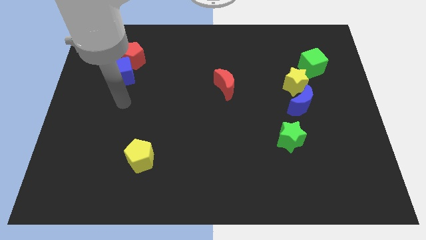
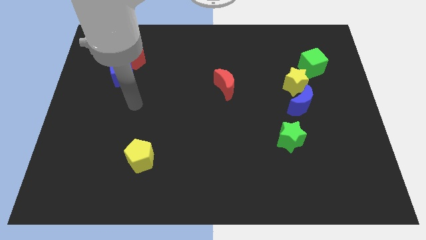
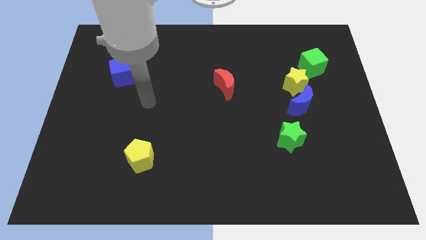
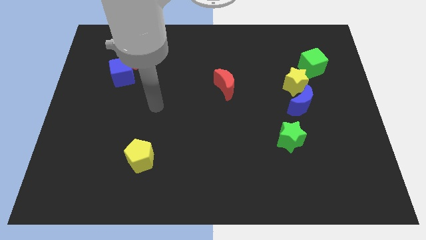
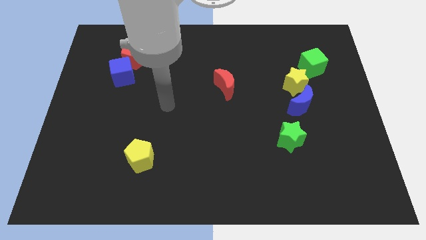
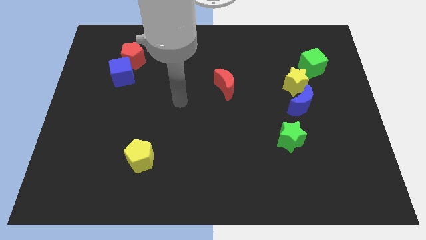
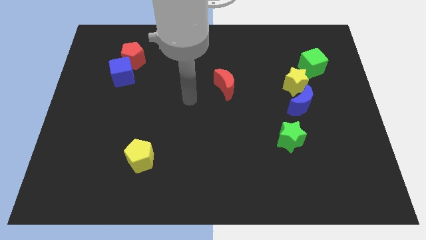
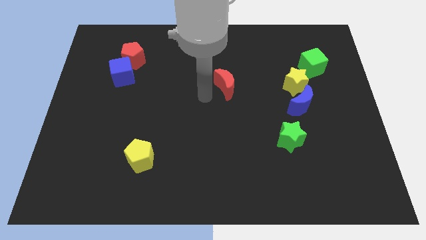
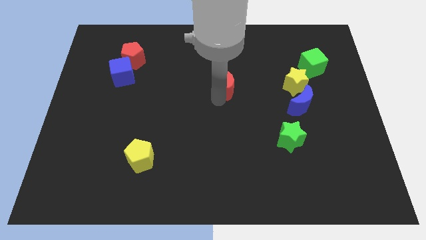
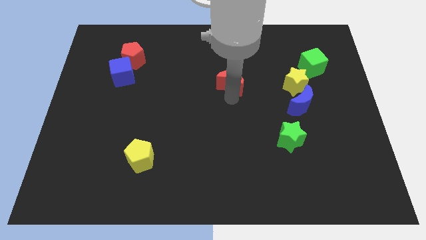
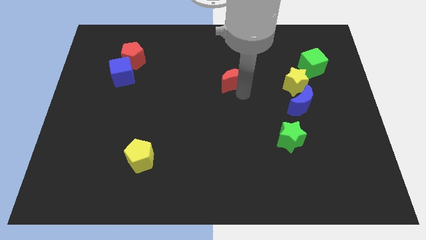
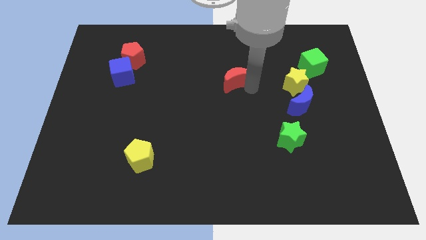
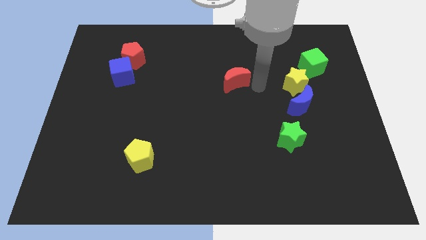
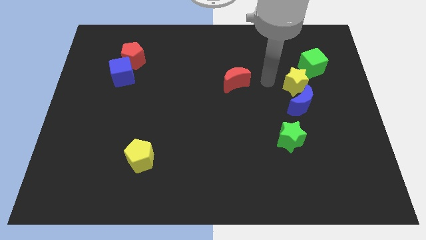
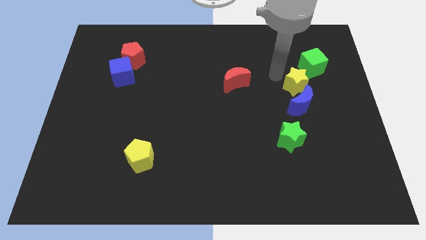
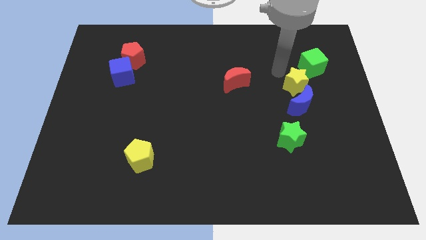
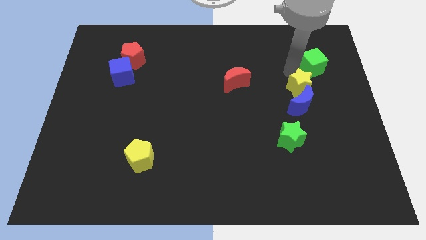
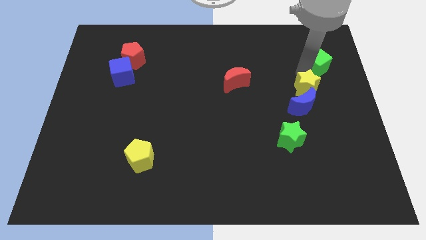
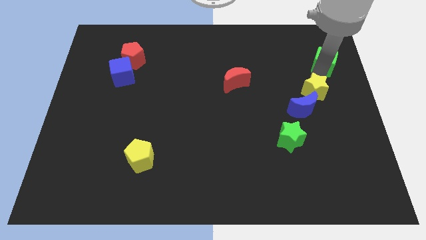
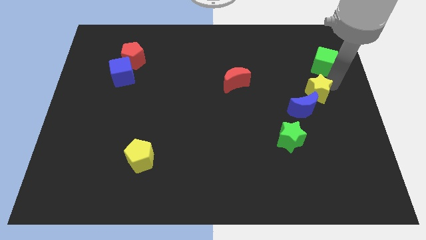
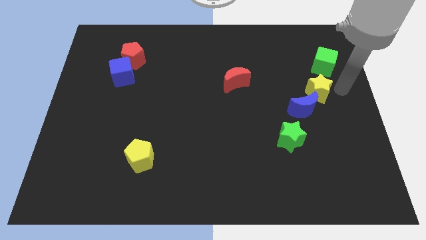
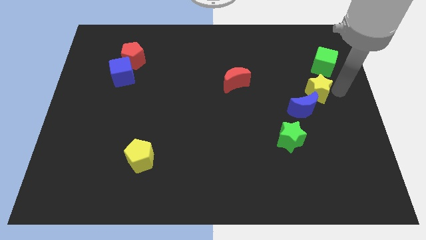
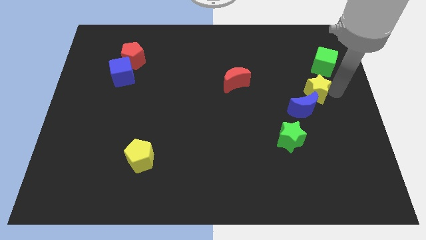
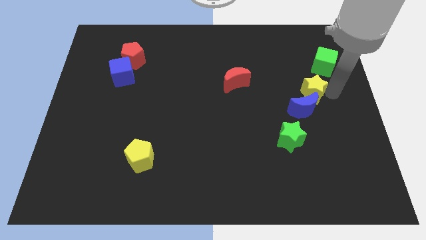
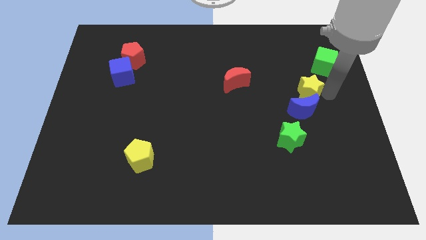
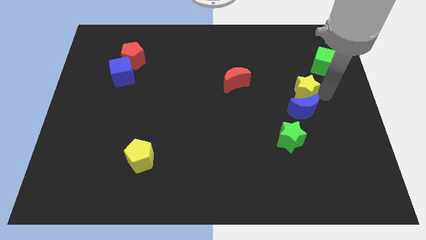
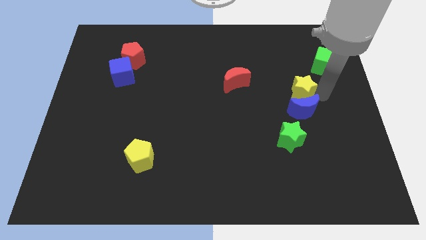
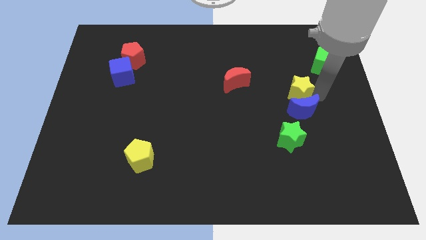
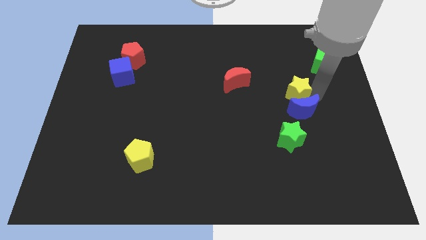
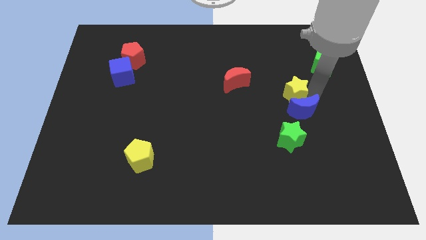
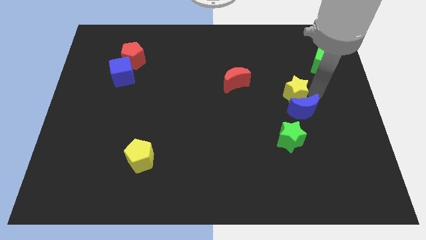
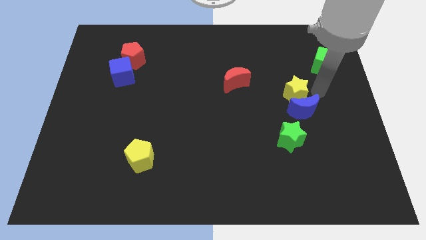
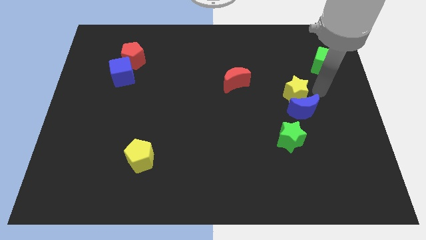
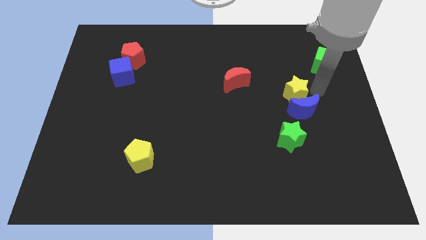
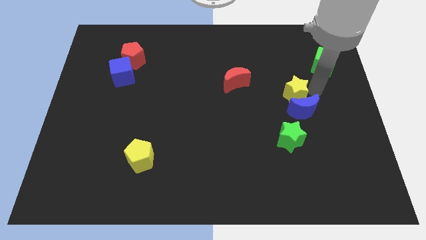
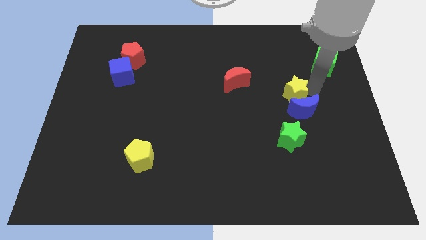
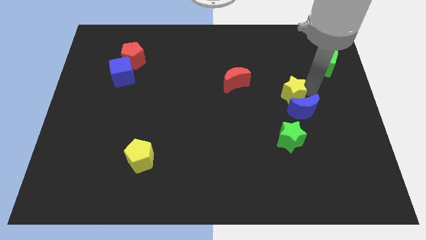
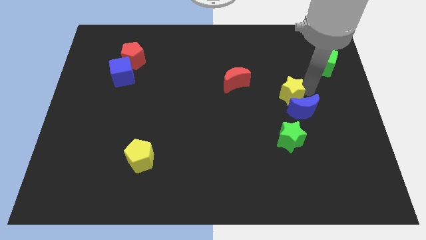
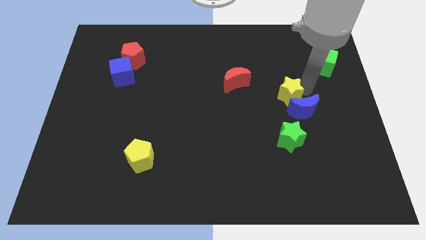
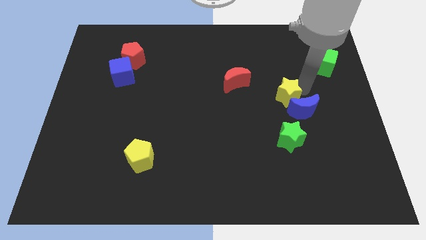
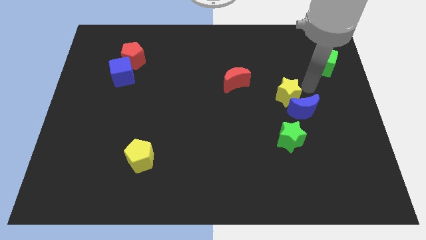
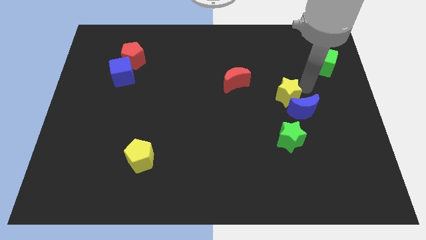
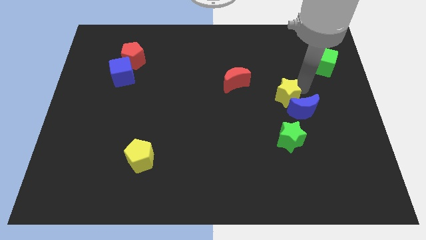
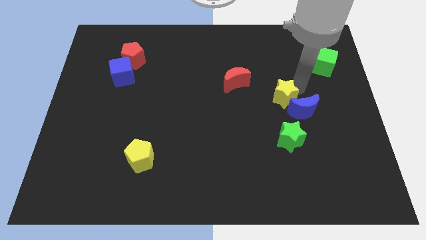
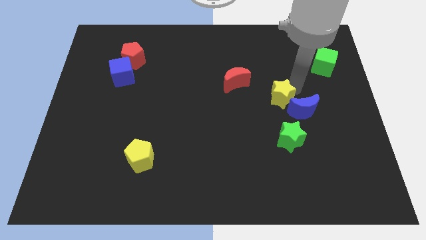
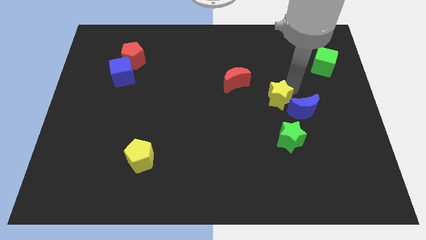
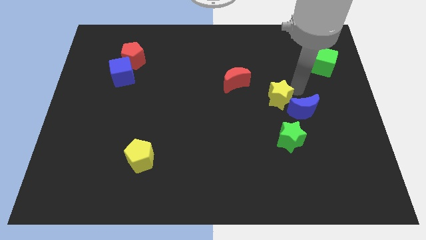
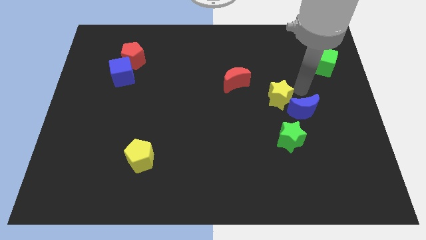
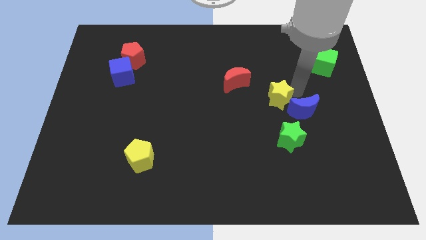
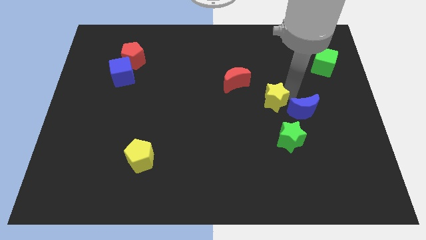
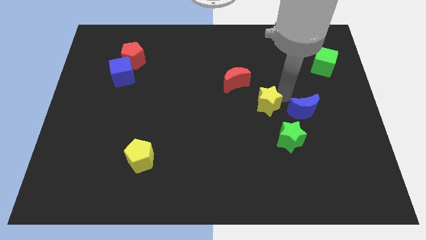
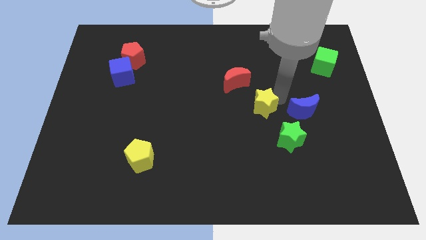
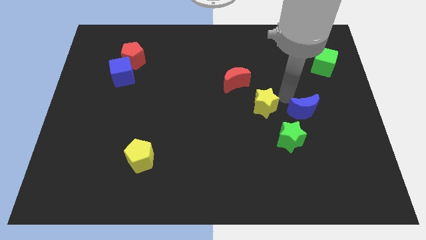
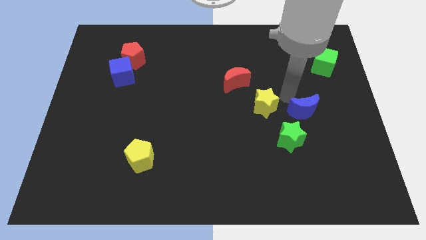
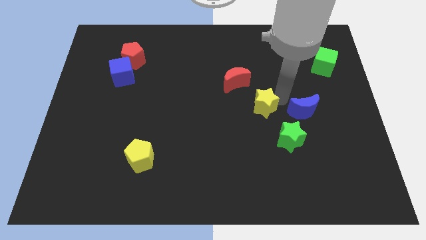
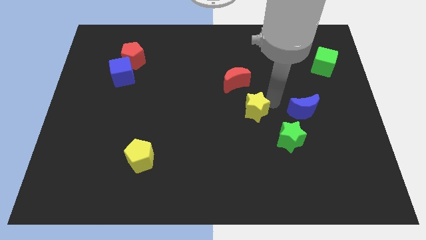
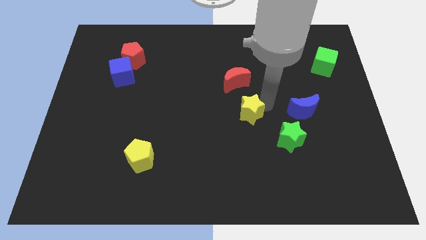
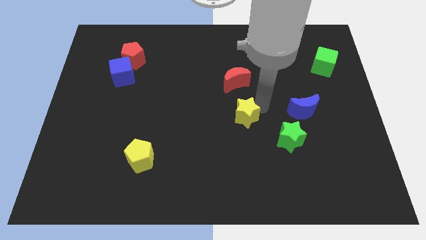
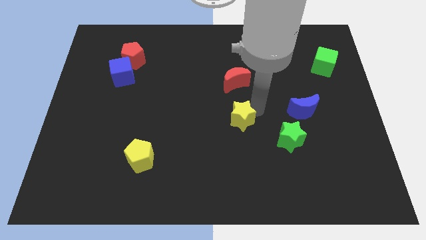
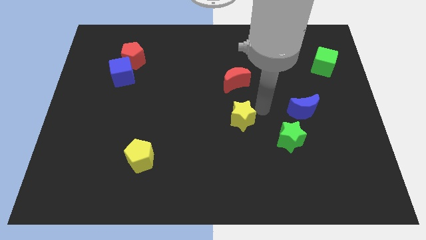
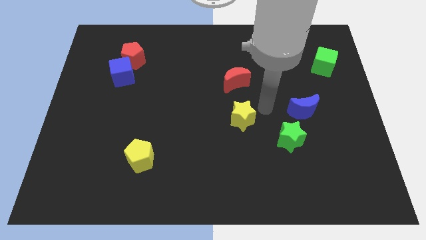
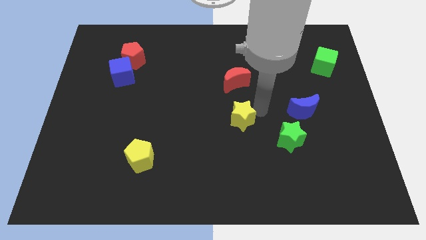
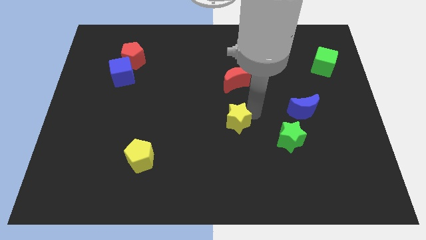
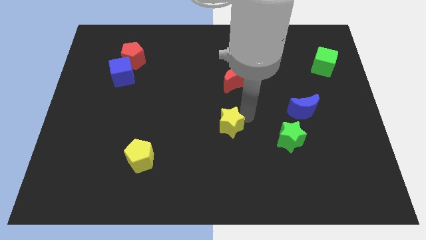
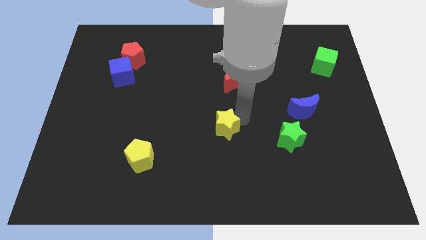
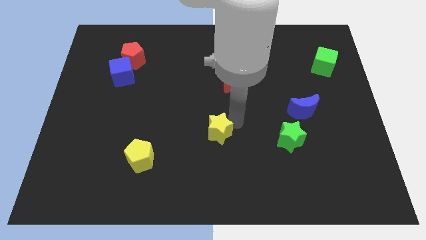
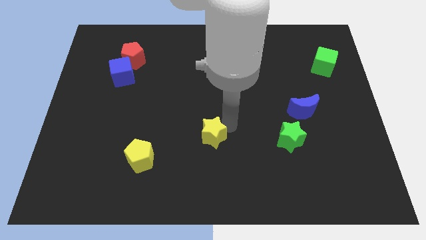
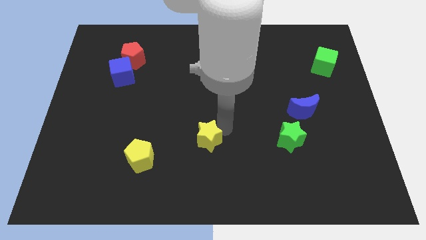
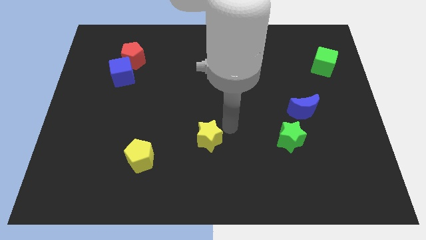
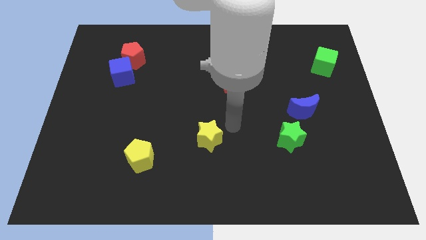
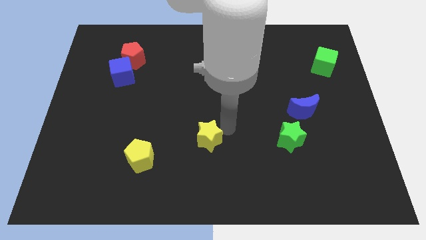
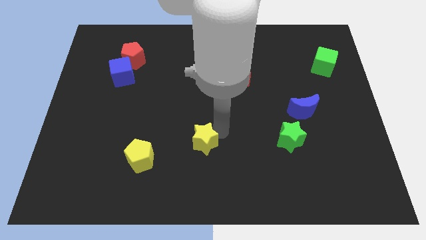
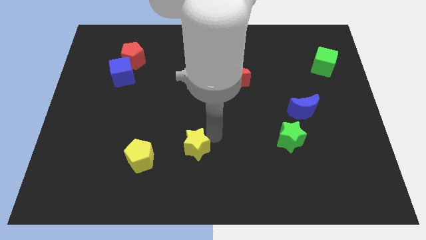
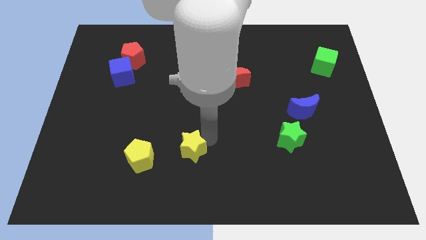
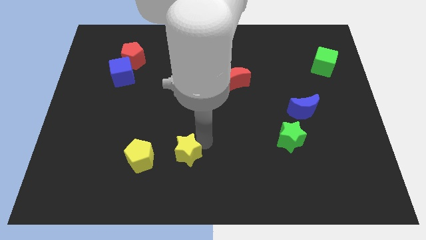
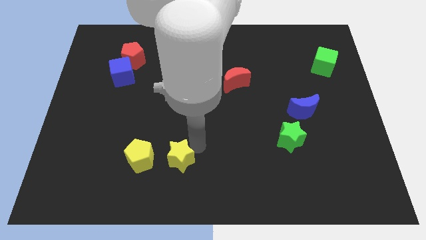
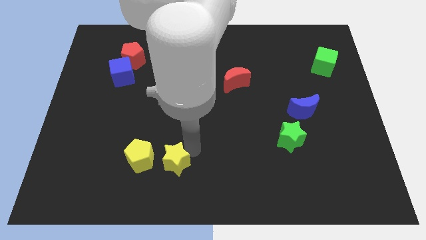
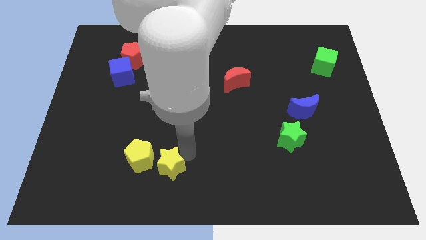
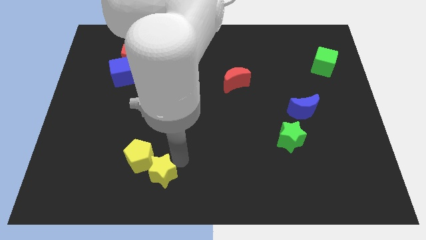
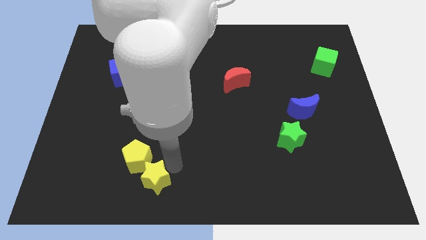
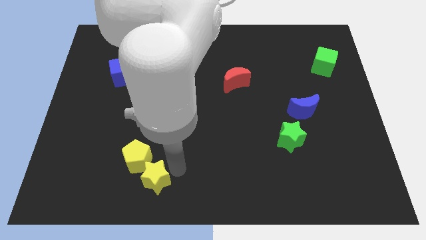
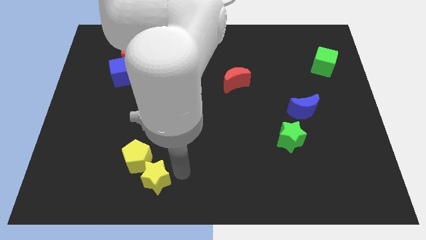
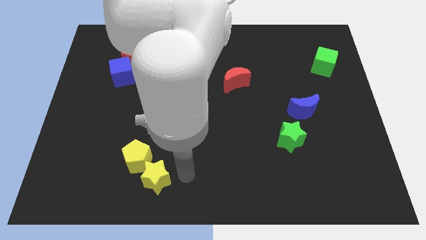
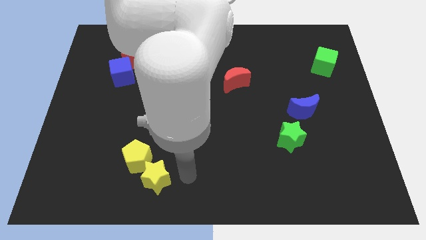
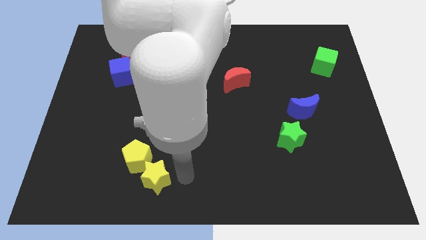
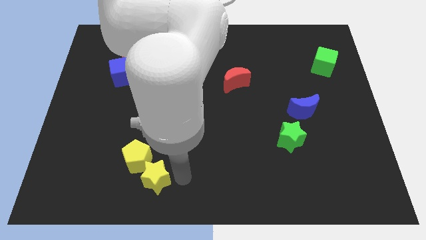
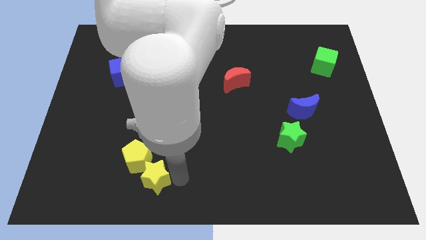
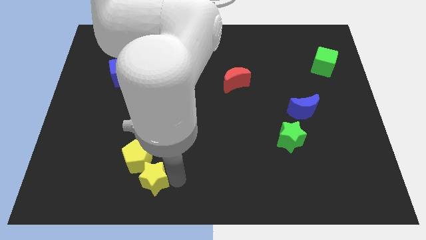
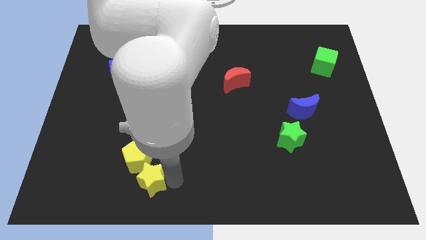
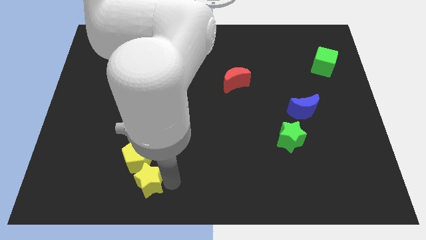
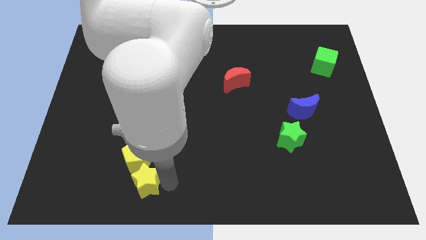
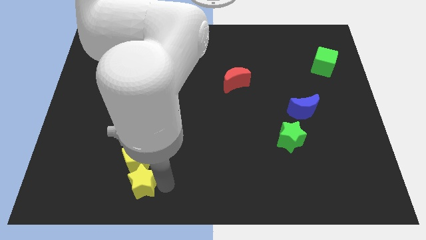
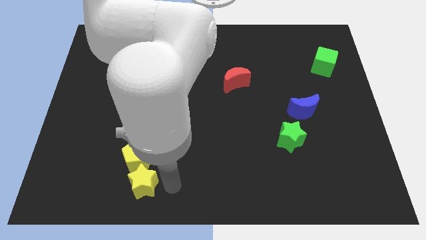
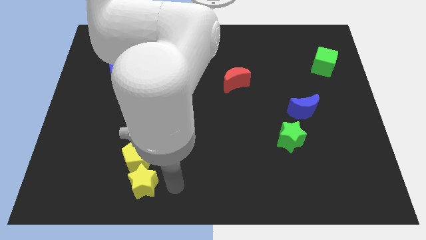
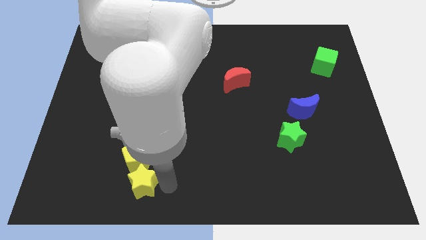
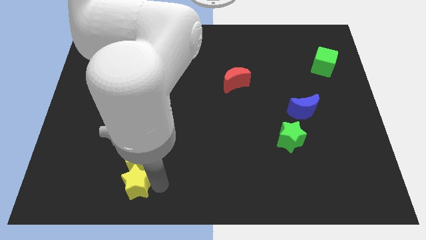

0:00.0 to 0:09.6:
push the yellow star to the bottom left of the yellow pentagon
